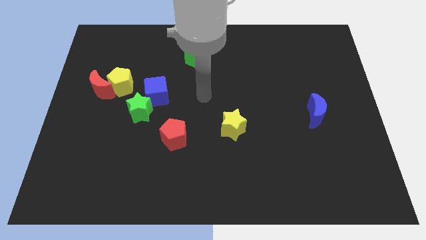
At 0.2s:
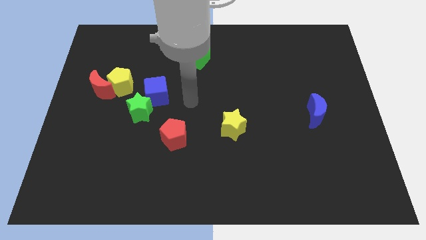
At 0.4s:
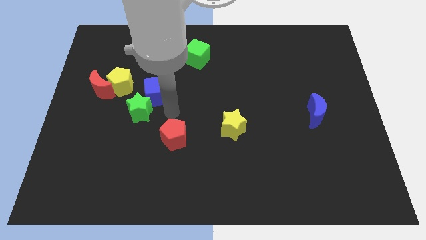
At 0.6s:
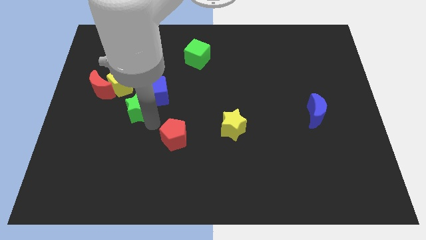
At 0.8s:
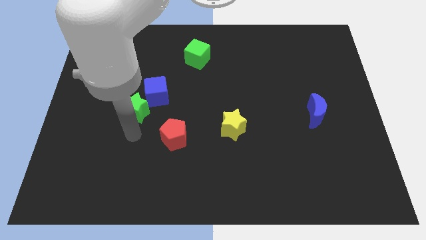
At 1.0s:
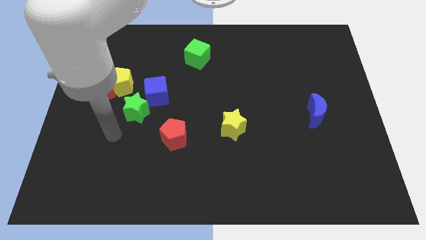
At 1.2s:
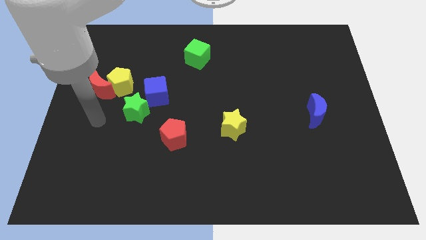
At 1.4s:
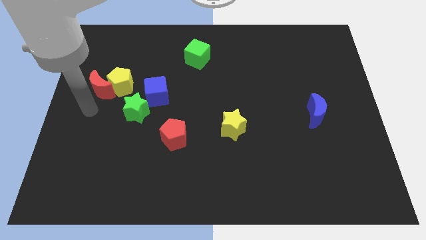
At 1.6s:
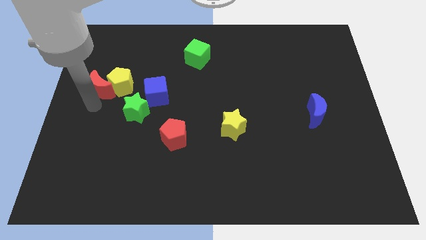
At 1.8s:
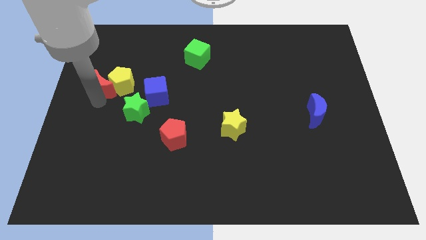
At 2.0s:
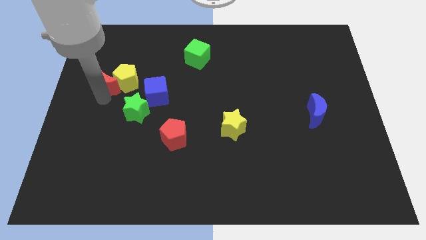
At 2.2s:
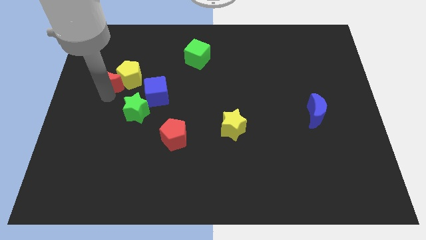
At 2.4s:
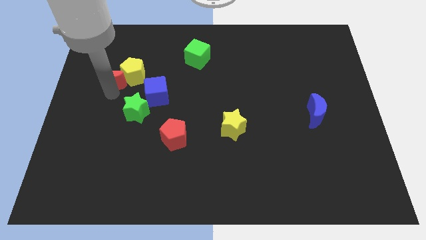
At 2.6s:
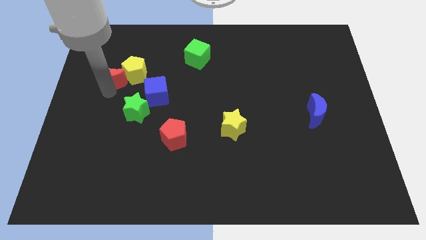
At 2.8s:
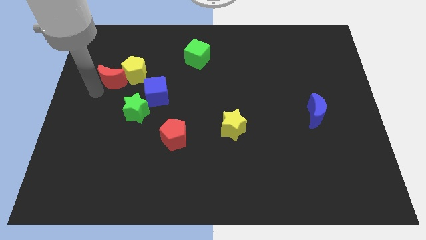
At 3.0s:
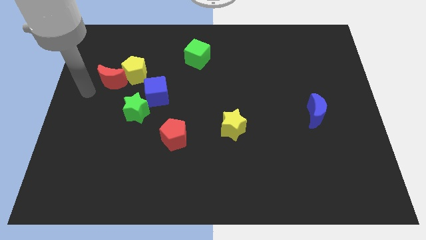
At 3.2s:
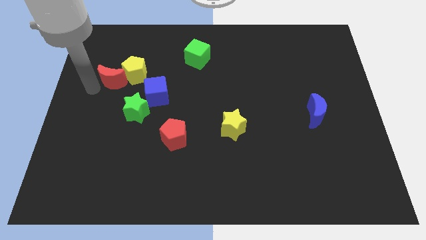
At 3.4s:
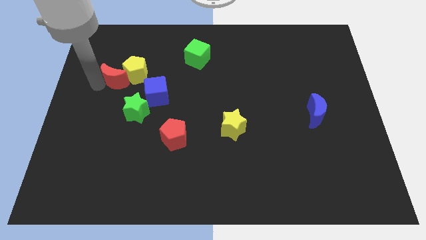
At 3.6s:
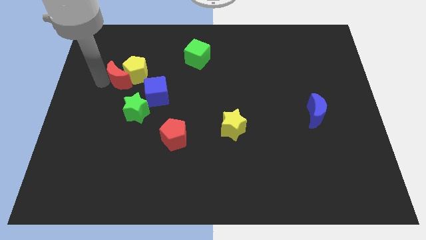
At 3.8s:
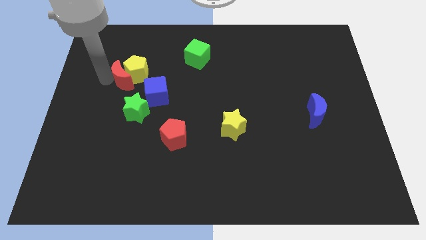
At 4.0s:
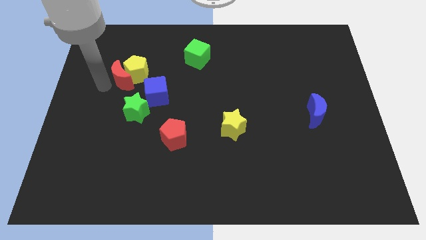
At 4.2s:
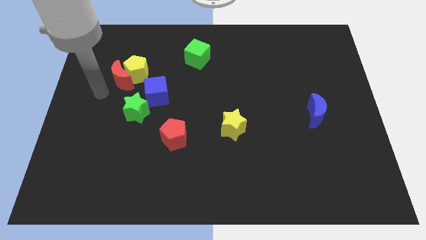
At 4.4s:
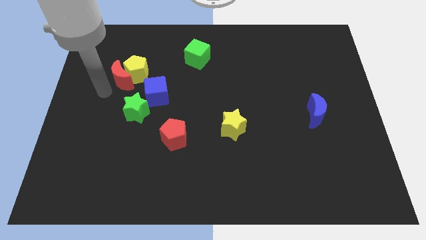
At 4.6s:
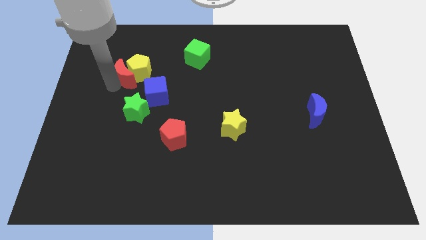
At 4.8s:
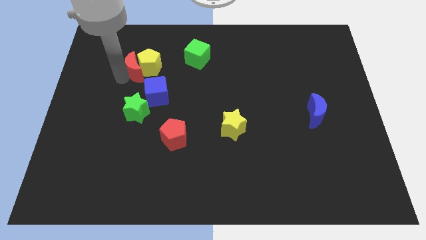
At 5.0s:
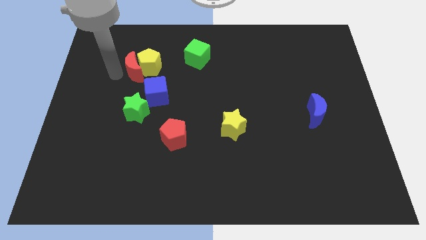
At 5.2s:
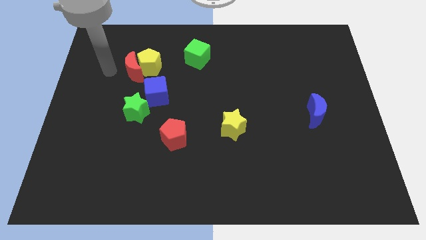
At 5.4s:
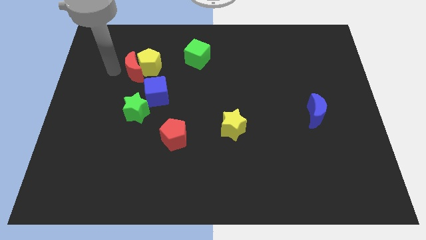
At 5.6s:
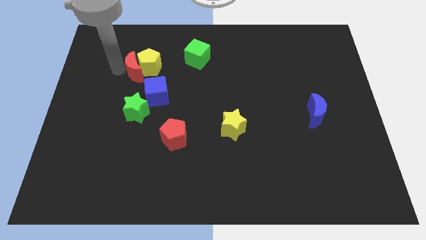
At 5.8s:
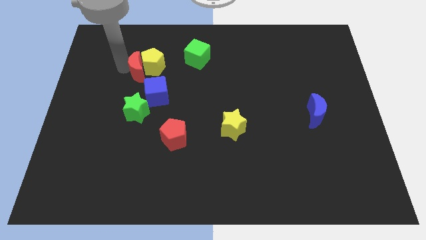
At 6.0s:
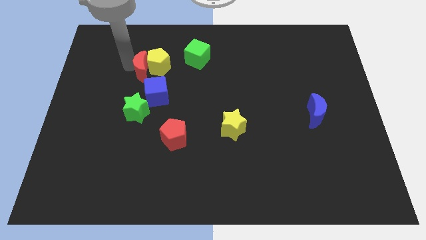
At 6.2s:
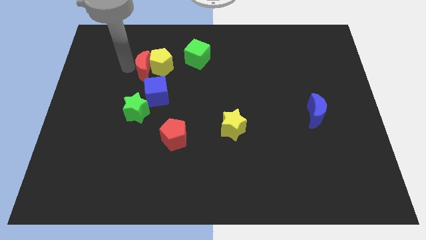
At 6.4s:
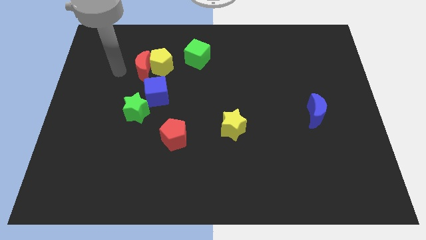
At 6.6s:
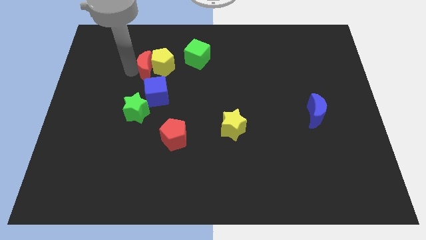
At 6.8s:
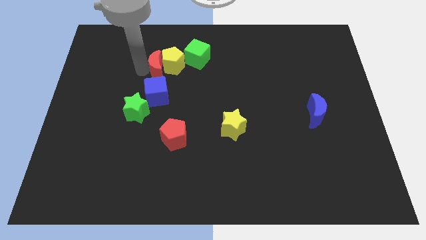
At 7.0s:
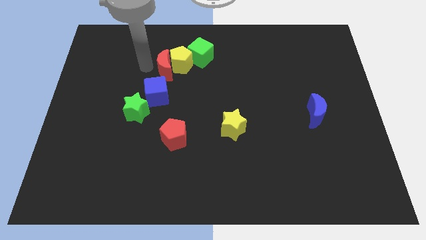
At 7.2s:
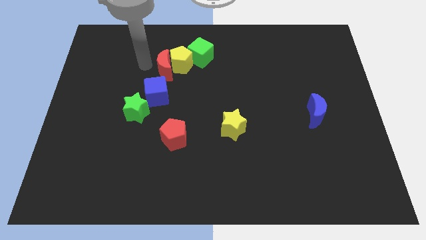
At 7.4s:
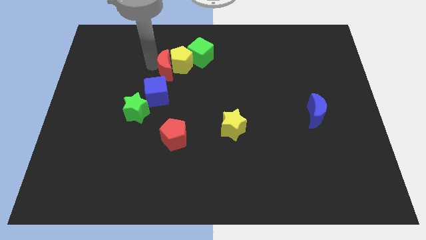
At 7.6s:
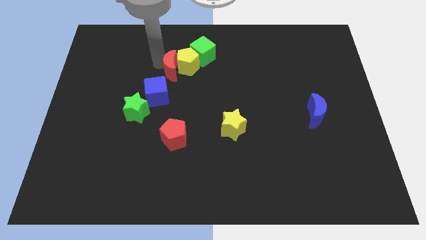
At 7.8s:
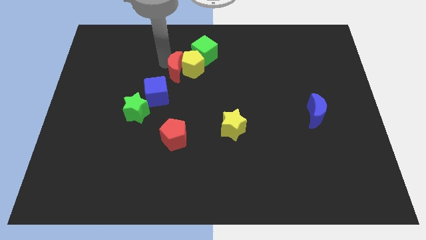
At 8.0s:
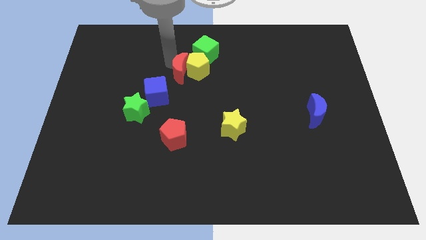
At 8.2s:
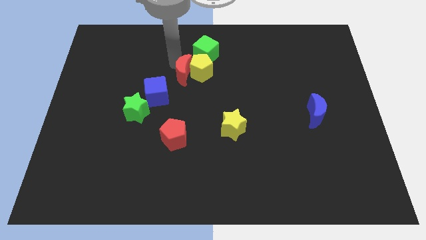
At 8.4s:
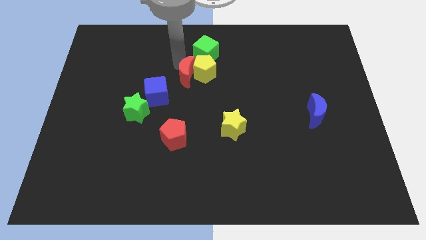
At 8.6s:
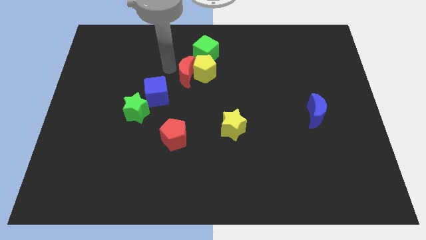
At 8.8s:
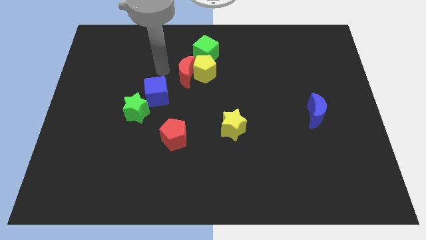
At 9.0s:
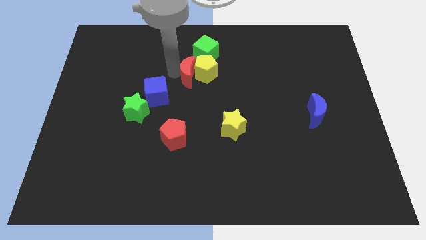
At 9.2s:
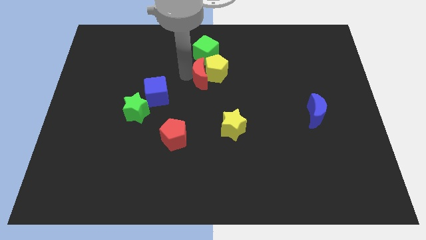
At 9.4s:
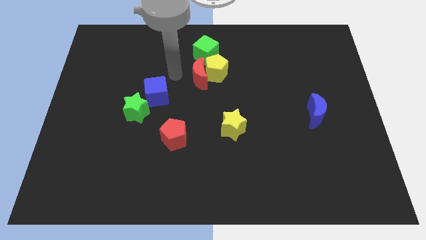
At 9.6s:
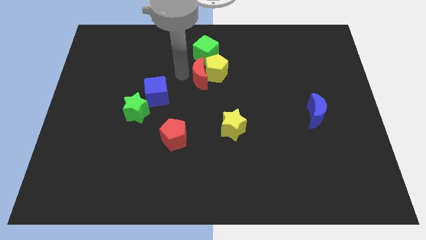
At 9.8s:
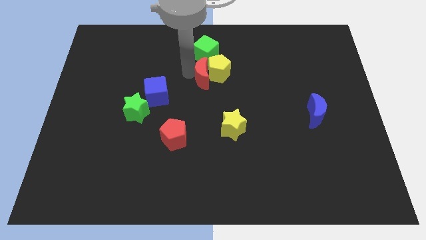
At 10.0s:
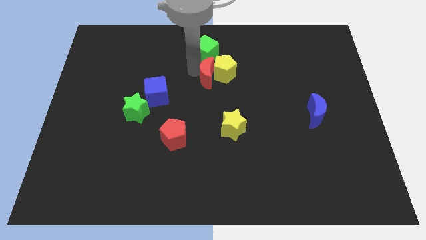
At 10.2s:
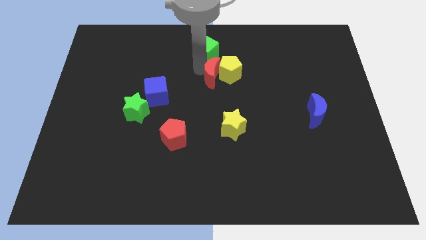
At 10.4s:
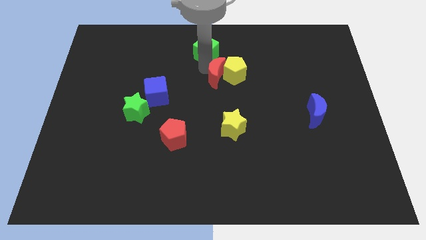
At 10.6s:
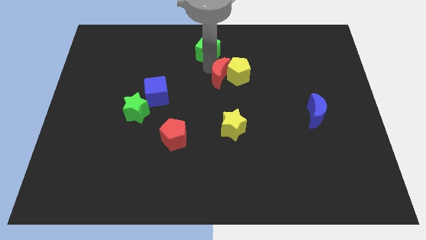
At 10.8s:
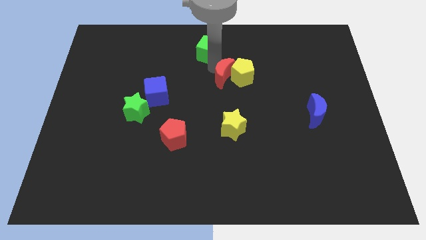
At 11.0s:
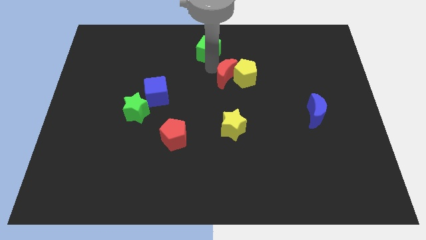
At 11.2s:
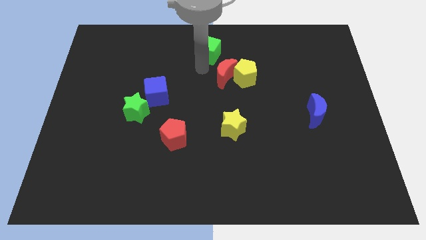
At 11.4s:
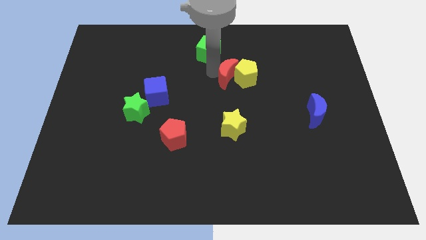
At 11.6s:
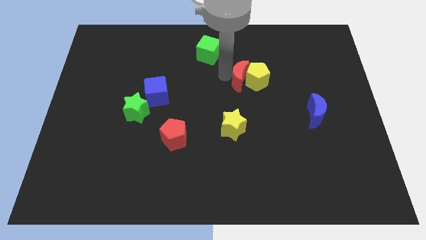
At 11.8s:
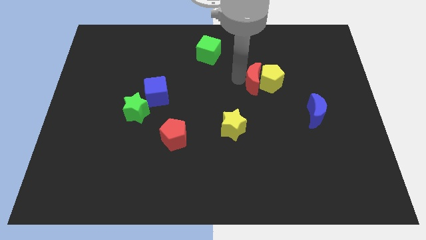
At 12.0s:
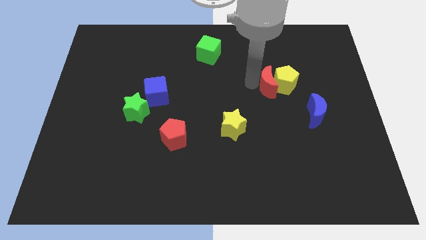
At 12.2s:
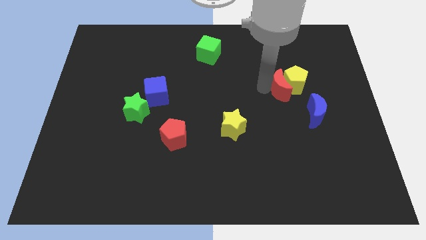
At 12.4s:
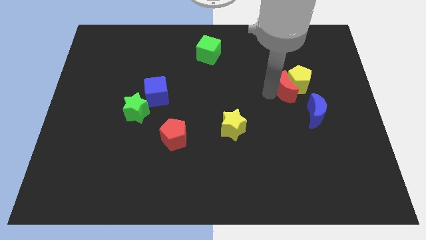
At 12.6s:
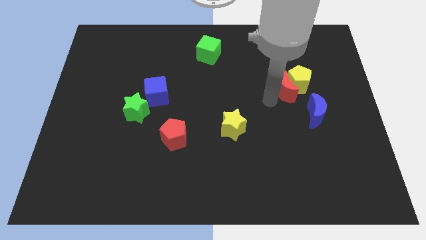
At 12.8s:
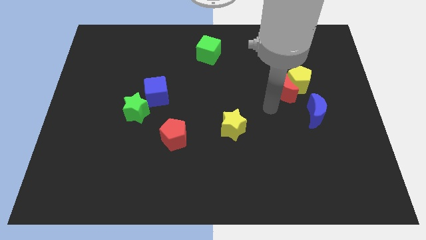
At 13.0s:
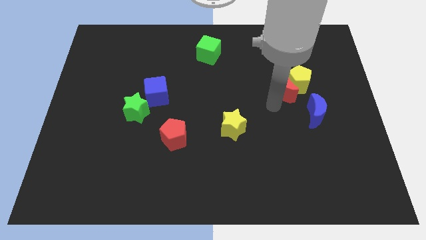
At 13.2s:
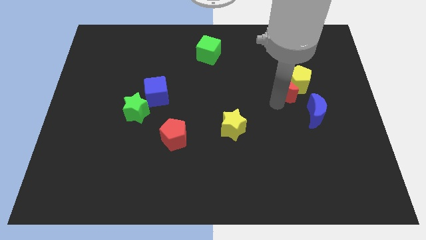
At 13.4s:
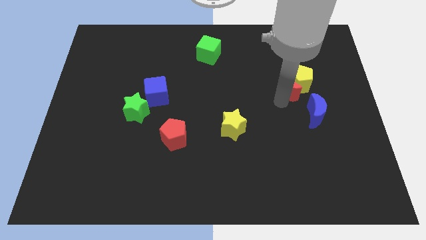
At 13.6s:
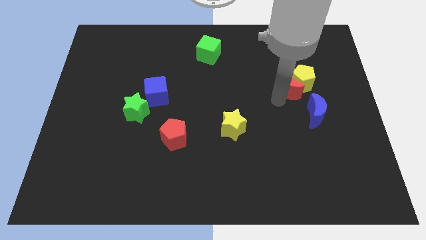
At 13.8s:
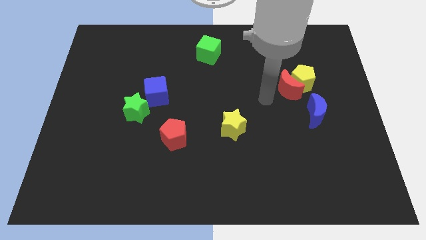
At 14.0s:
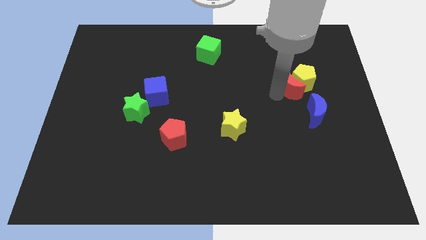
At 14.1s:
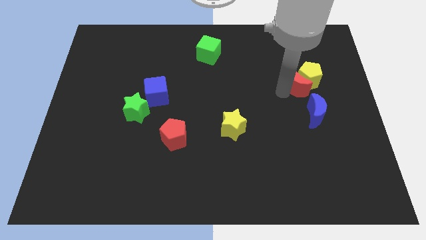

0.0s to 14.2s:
put the red moon above the blue moon
